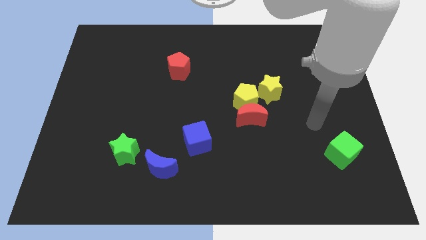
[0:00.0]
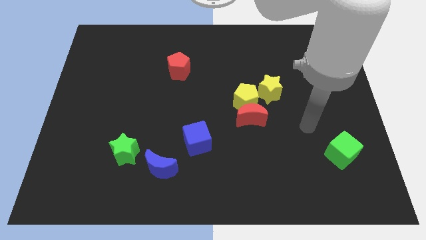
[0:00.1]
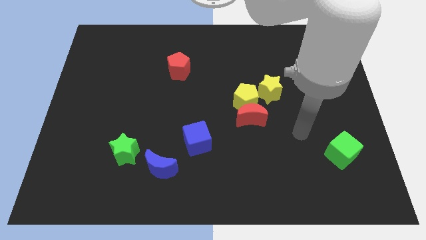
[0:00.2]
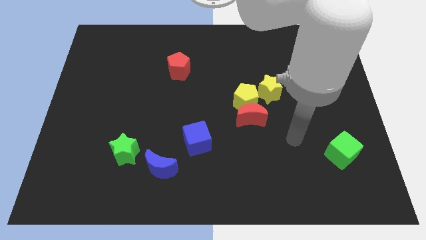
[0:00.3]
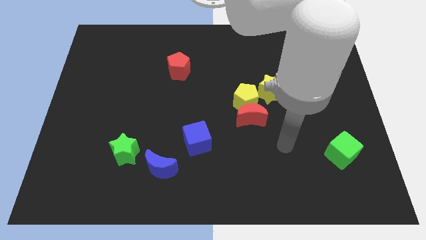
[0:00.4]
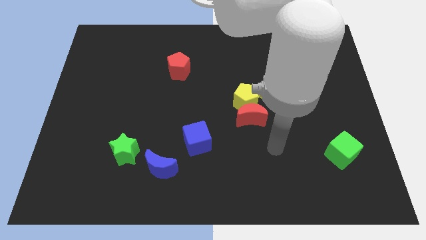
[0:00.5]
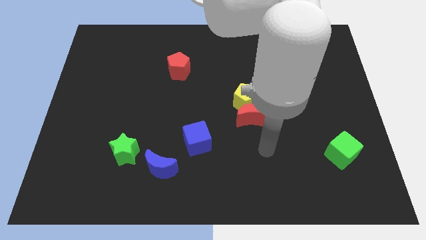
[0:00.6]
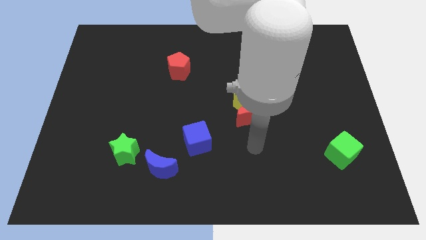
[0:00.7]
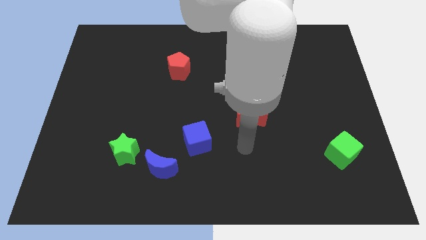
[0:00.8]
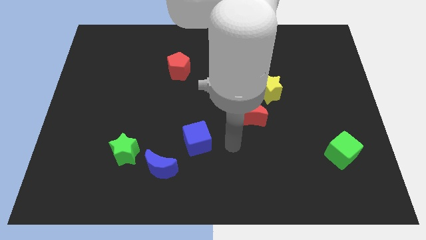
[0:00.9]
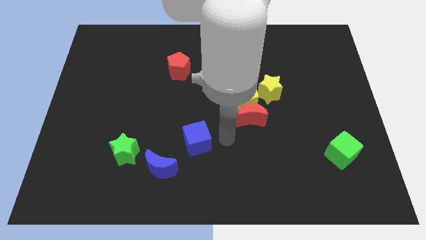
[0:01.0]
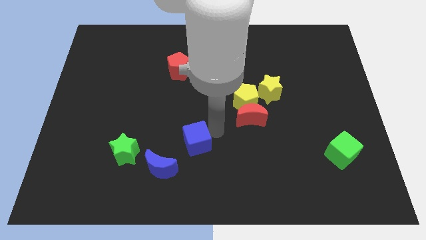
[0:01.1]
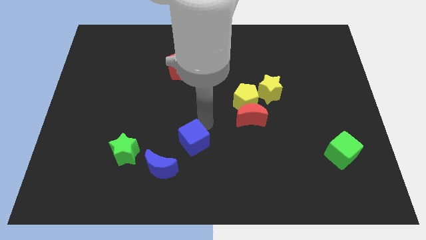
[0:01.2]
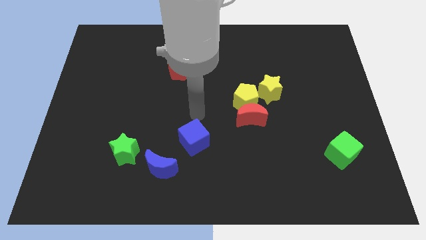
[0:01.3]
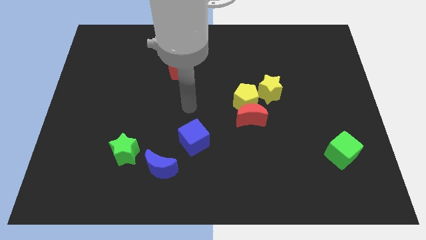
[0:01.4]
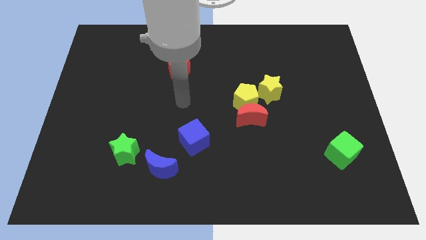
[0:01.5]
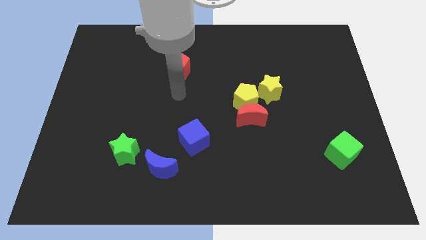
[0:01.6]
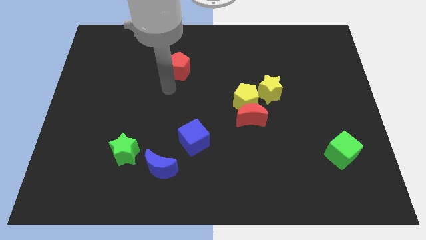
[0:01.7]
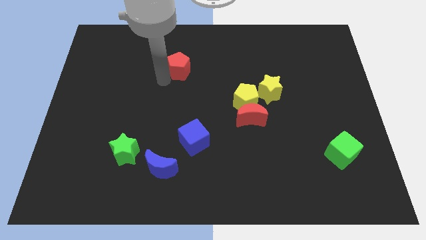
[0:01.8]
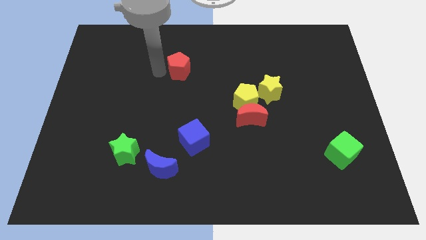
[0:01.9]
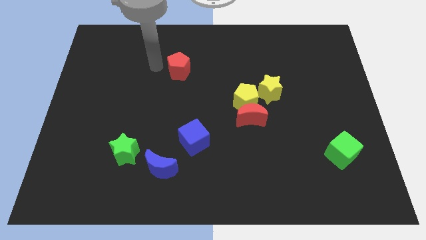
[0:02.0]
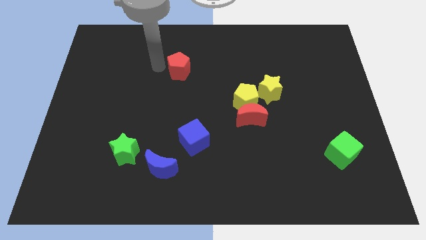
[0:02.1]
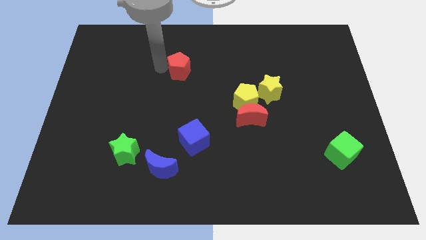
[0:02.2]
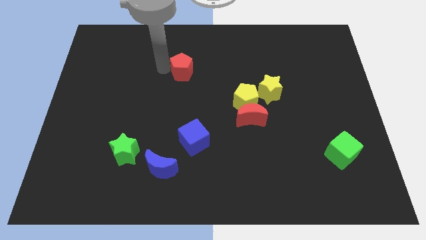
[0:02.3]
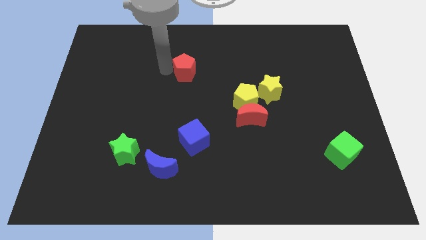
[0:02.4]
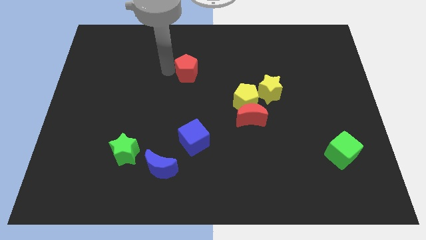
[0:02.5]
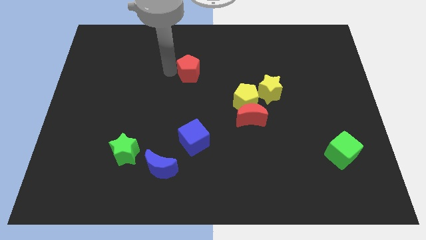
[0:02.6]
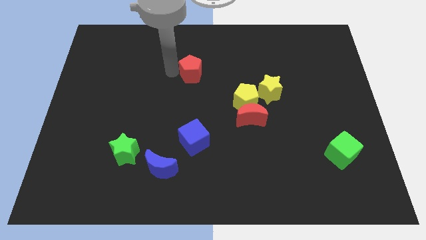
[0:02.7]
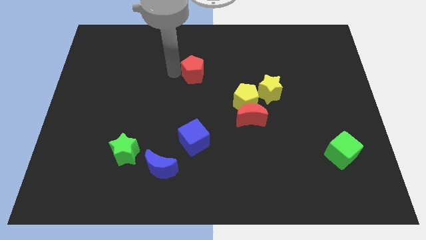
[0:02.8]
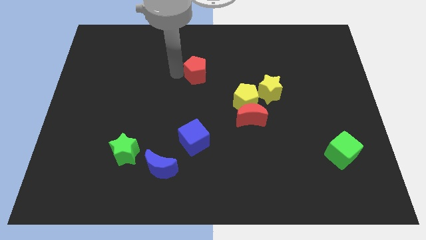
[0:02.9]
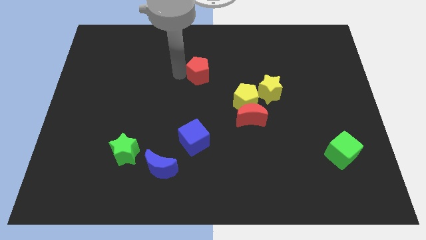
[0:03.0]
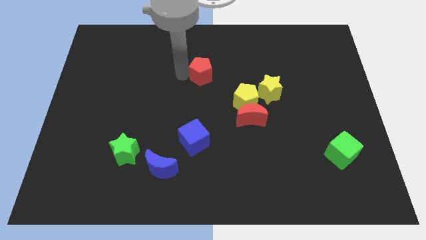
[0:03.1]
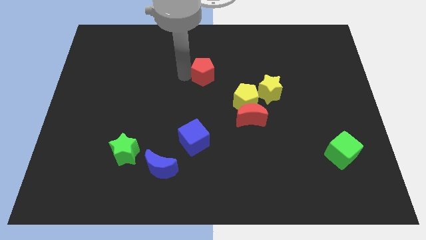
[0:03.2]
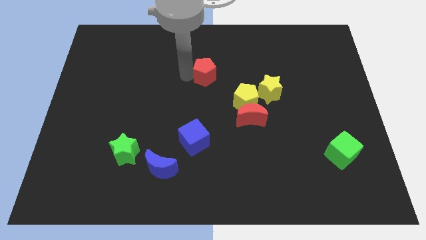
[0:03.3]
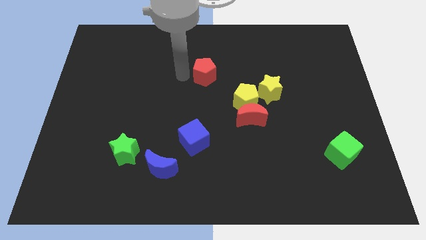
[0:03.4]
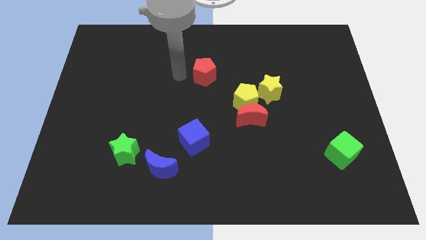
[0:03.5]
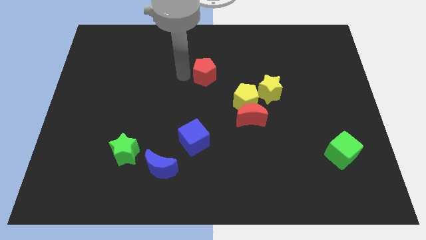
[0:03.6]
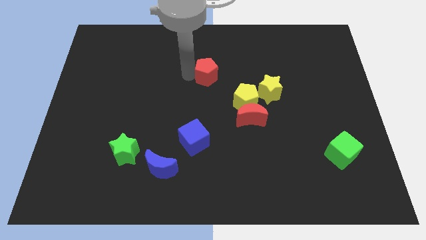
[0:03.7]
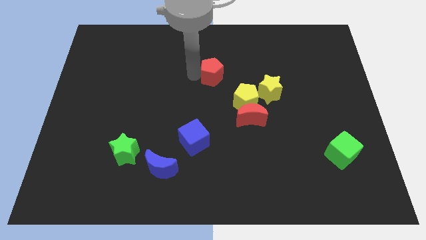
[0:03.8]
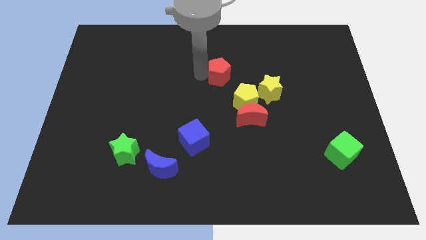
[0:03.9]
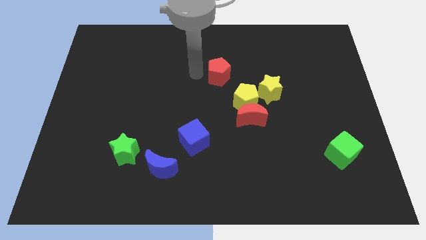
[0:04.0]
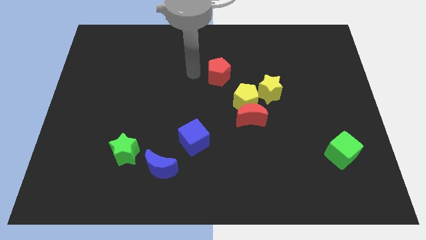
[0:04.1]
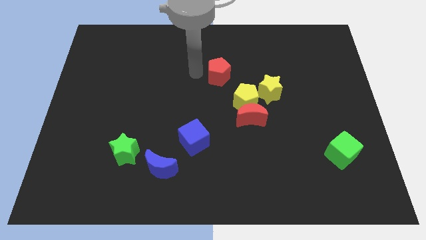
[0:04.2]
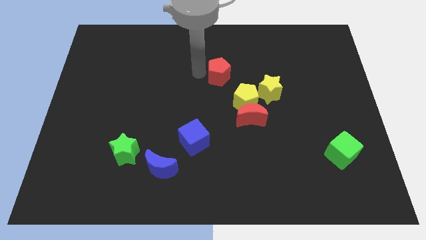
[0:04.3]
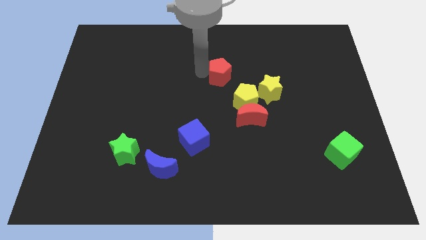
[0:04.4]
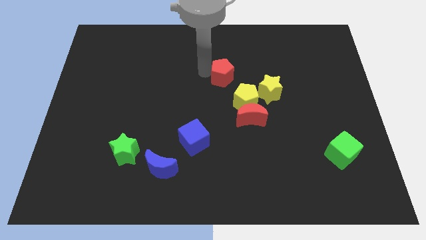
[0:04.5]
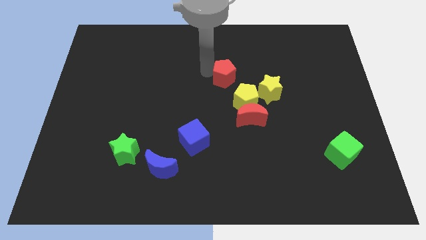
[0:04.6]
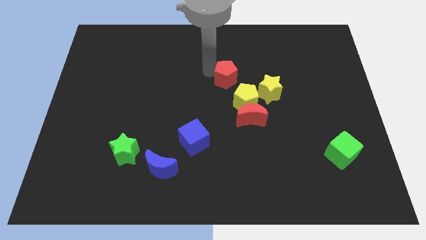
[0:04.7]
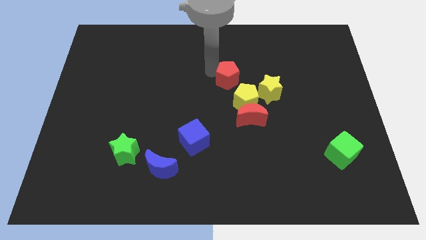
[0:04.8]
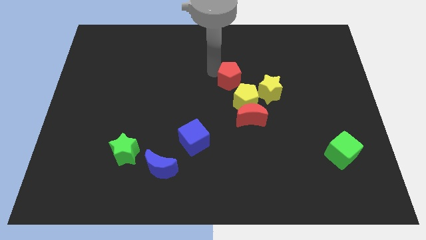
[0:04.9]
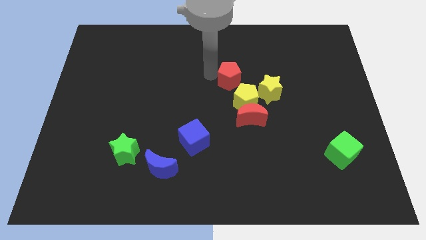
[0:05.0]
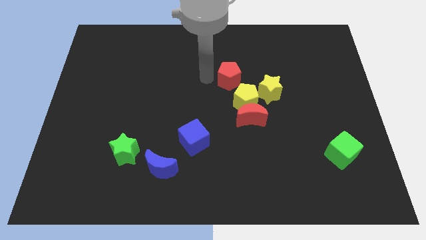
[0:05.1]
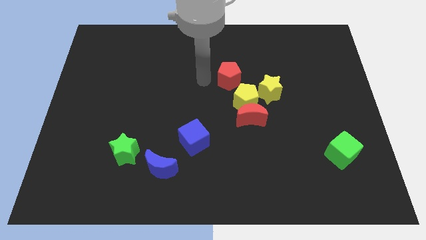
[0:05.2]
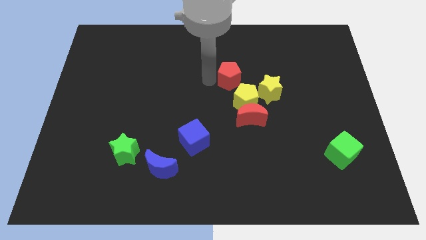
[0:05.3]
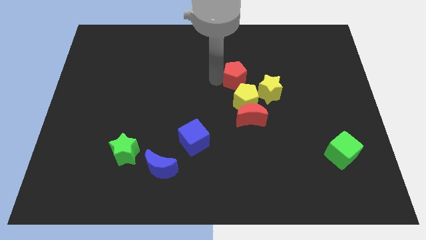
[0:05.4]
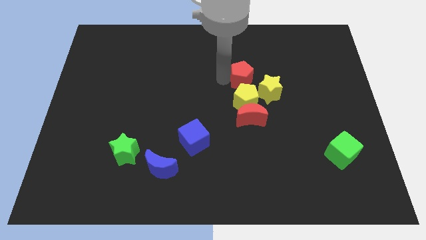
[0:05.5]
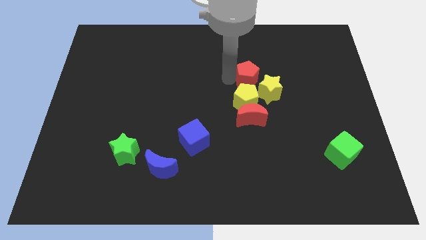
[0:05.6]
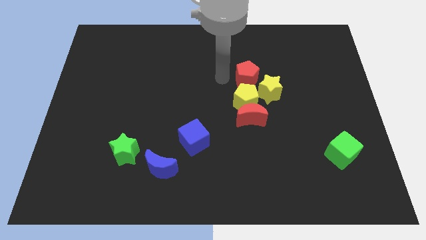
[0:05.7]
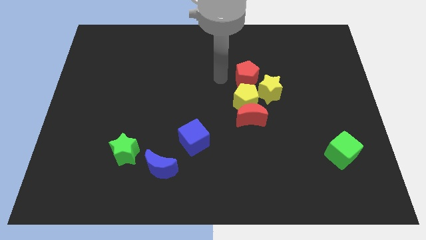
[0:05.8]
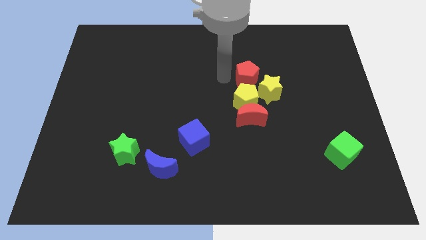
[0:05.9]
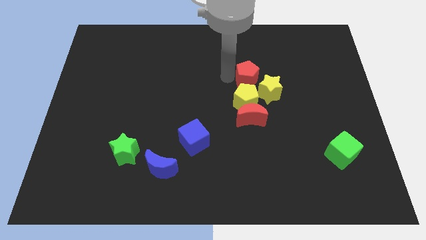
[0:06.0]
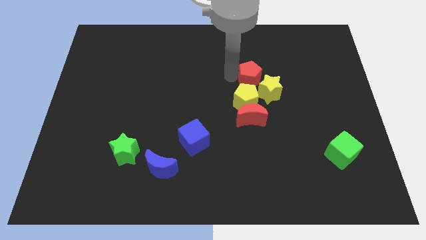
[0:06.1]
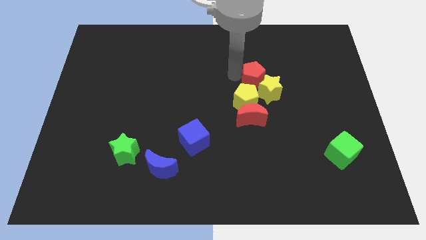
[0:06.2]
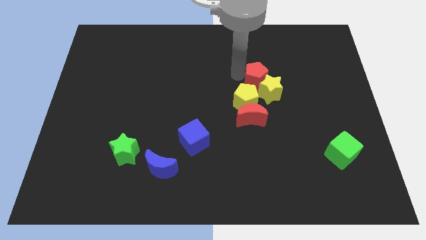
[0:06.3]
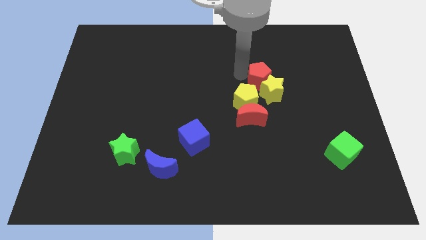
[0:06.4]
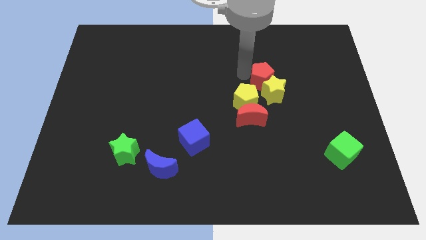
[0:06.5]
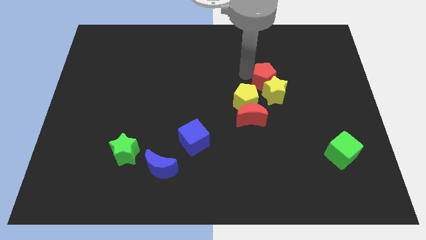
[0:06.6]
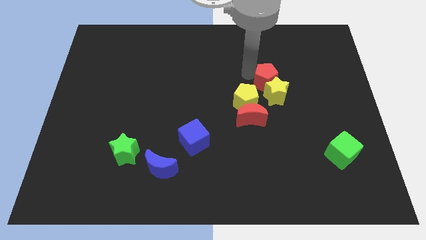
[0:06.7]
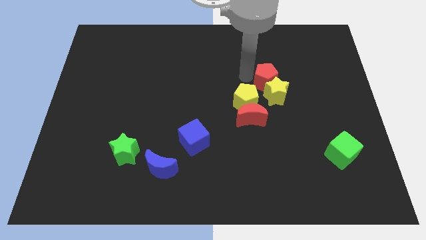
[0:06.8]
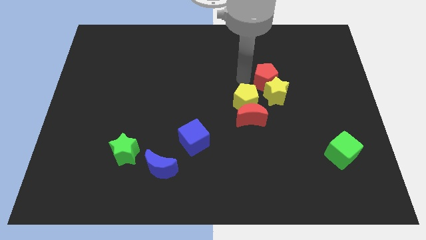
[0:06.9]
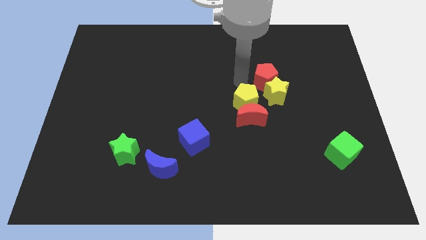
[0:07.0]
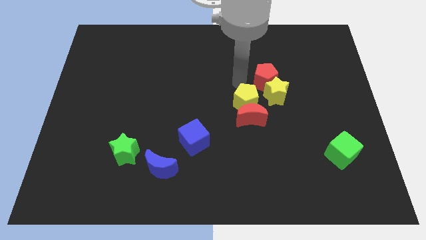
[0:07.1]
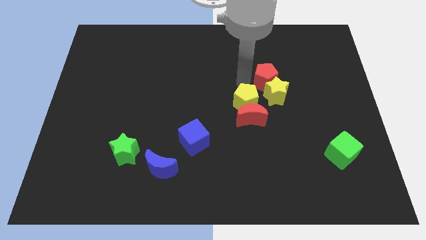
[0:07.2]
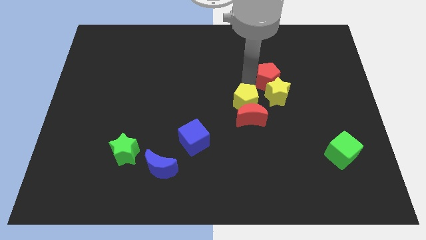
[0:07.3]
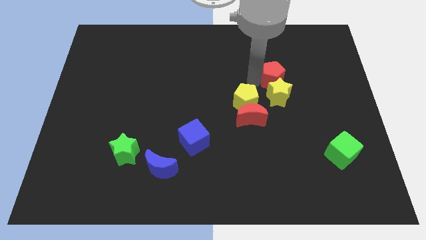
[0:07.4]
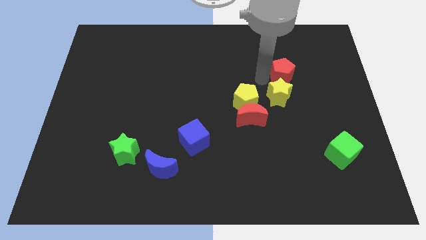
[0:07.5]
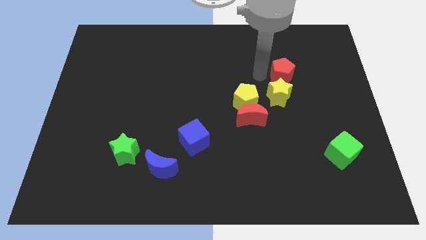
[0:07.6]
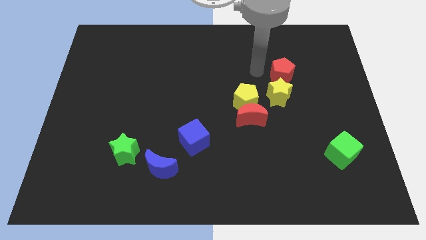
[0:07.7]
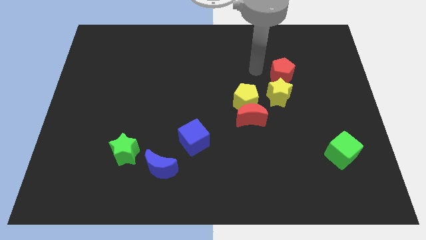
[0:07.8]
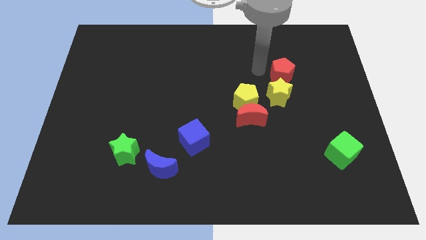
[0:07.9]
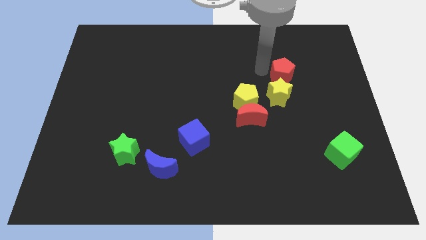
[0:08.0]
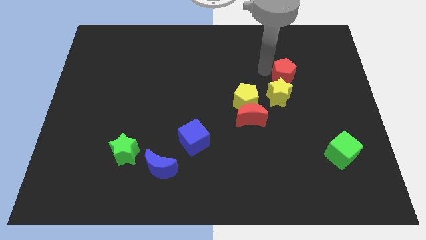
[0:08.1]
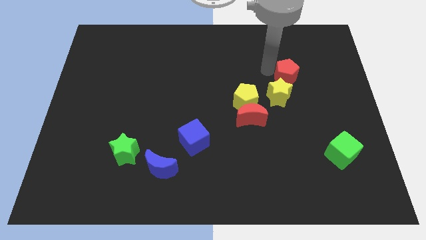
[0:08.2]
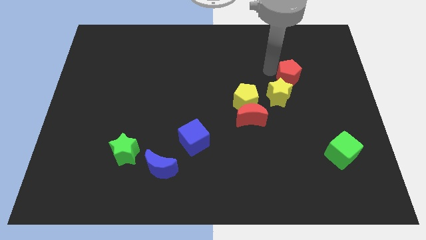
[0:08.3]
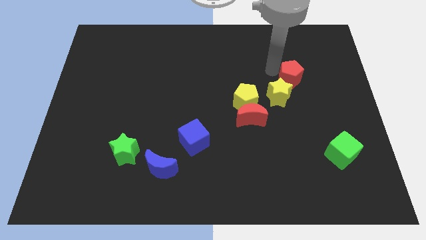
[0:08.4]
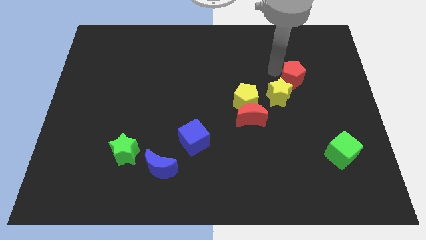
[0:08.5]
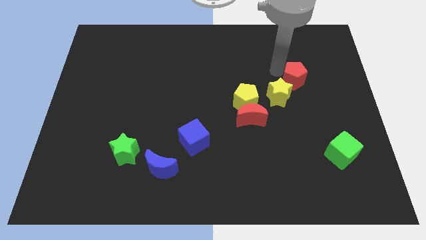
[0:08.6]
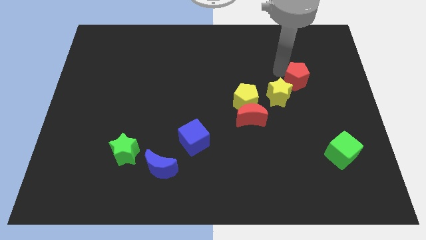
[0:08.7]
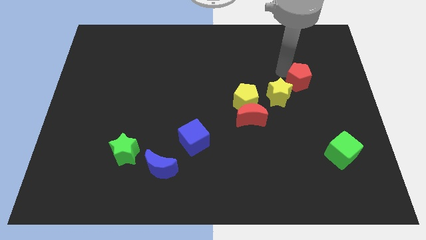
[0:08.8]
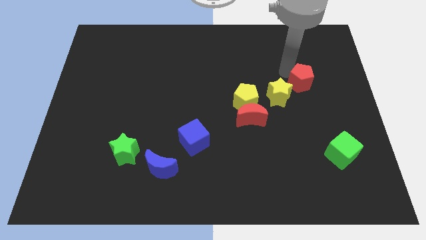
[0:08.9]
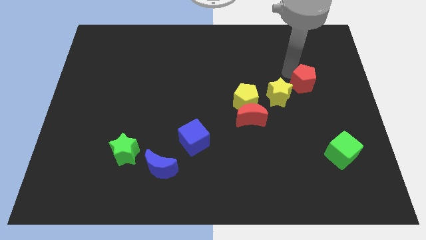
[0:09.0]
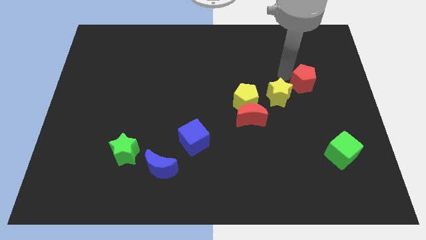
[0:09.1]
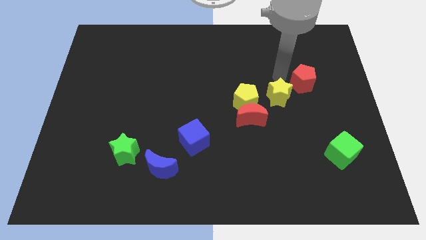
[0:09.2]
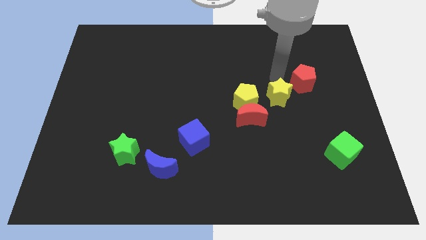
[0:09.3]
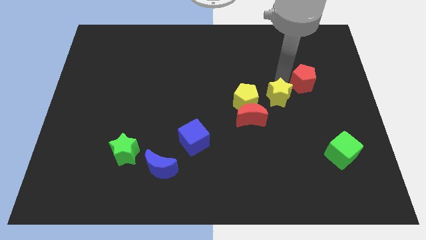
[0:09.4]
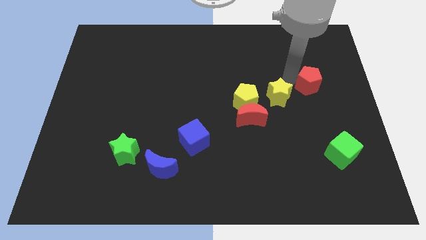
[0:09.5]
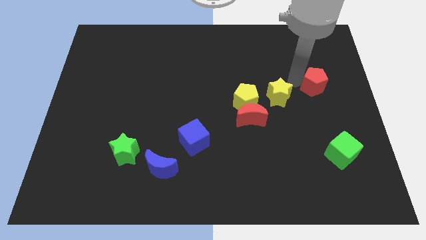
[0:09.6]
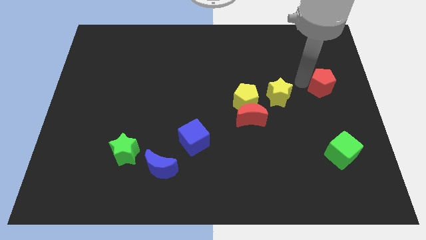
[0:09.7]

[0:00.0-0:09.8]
slide the red pentagon to the right side
